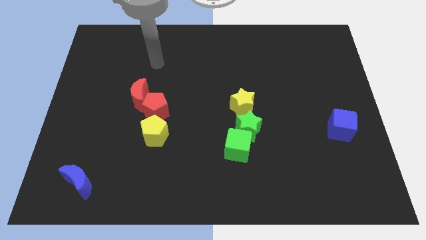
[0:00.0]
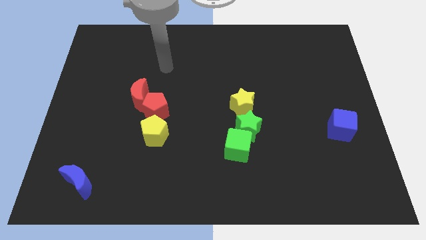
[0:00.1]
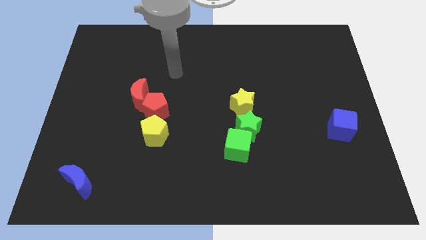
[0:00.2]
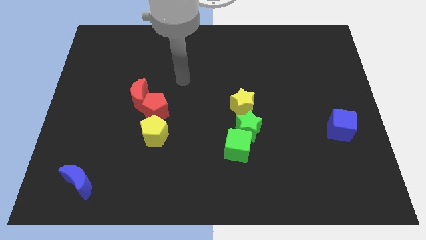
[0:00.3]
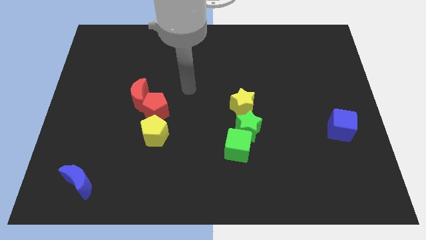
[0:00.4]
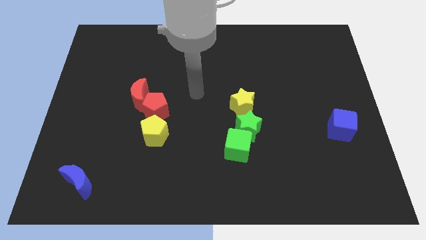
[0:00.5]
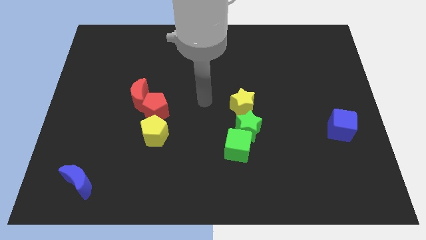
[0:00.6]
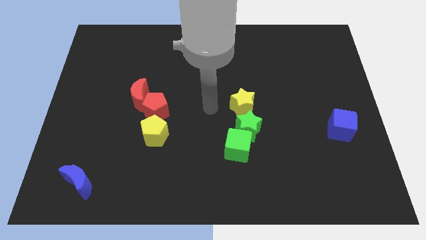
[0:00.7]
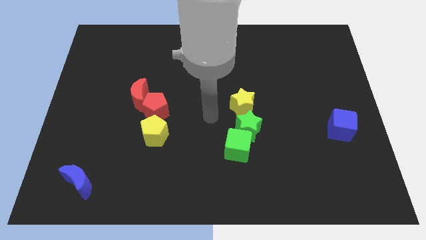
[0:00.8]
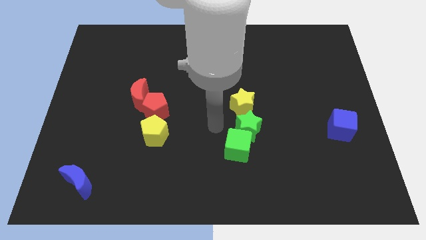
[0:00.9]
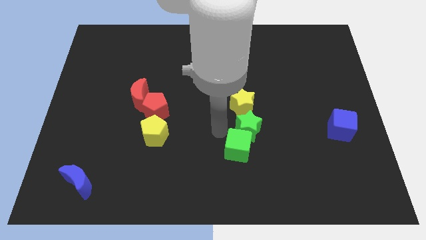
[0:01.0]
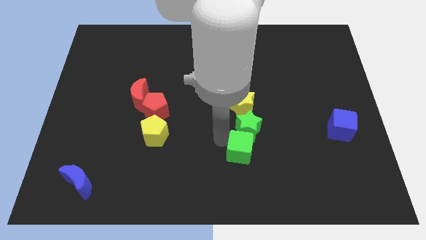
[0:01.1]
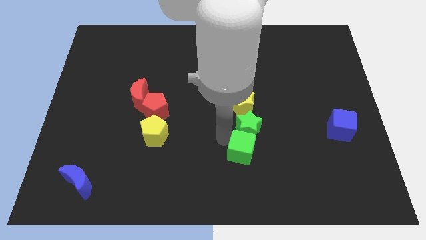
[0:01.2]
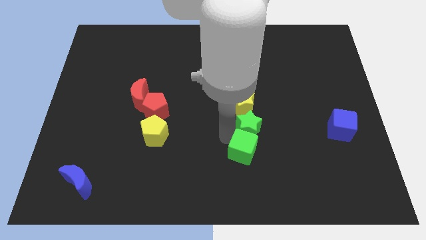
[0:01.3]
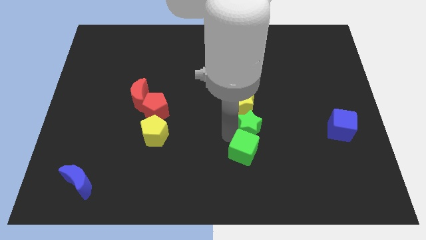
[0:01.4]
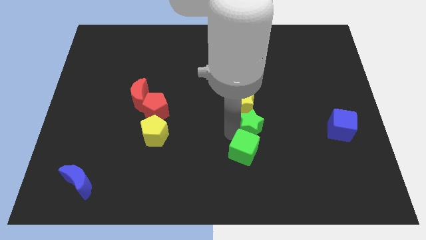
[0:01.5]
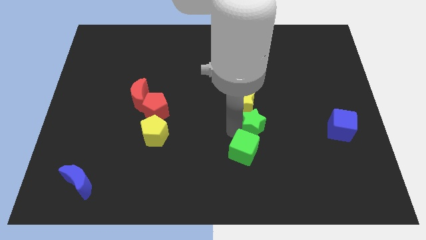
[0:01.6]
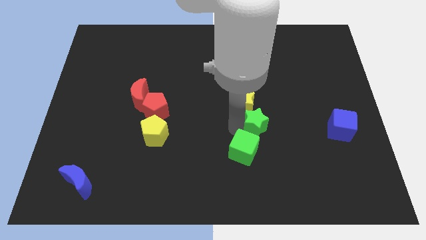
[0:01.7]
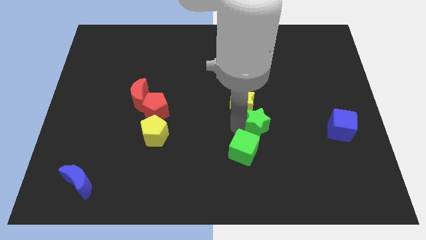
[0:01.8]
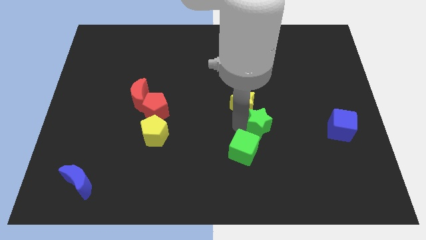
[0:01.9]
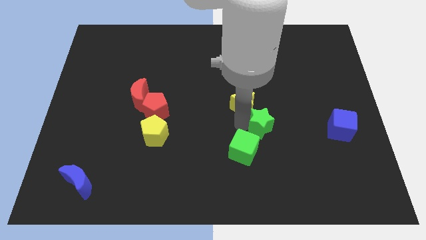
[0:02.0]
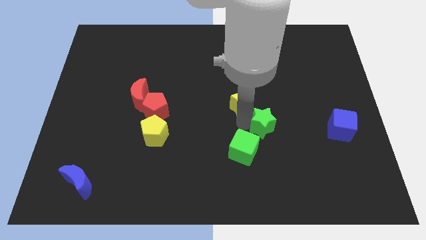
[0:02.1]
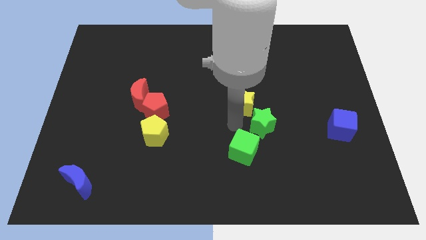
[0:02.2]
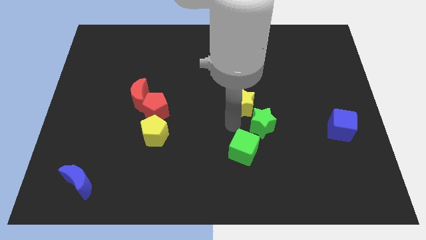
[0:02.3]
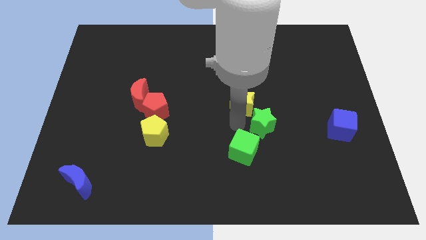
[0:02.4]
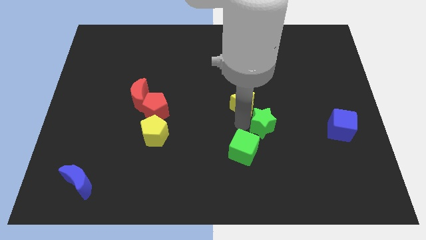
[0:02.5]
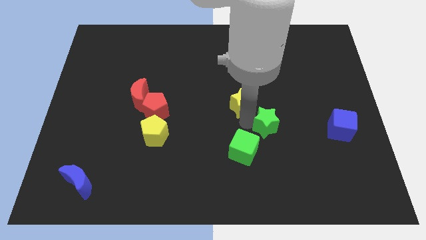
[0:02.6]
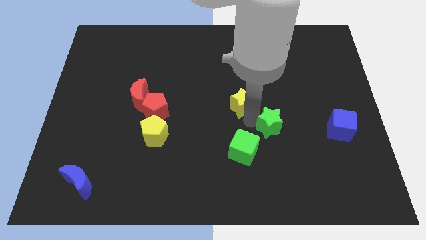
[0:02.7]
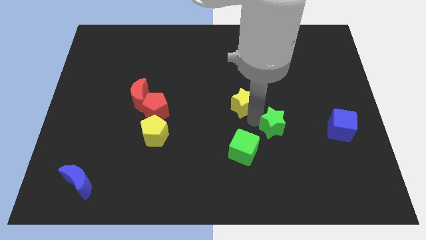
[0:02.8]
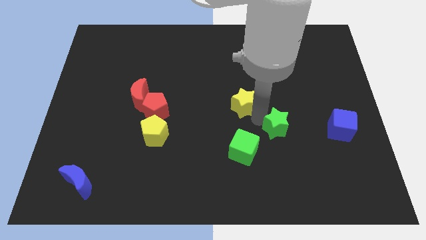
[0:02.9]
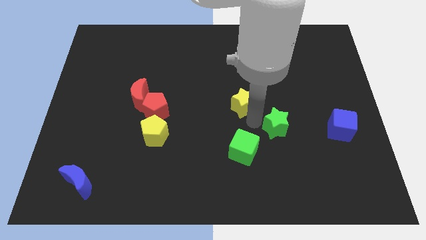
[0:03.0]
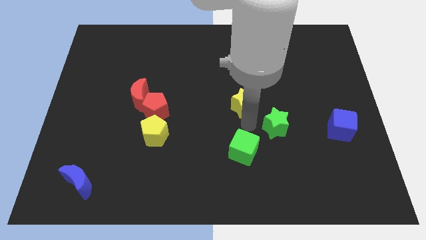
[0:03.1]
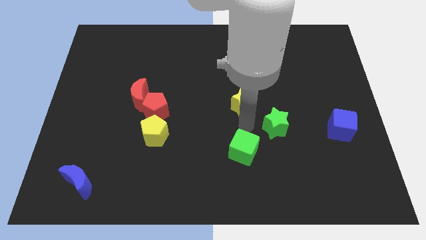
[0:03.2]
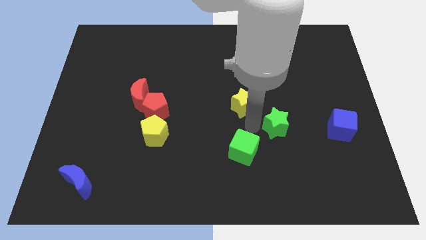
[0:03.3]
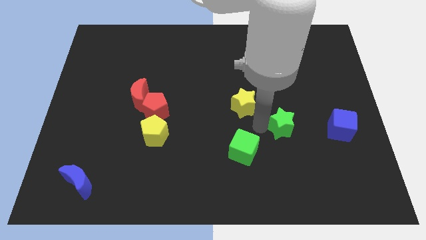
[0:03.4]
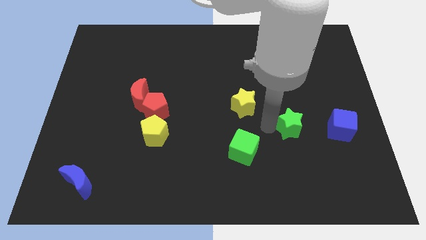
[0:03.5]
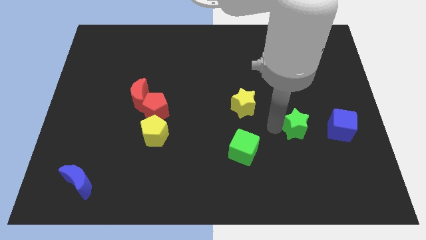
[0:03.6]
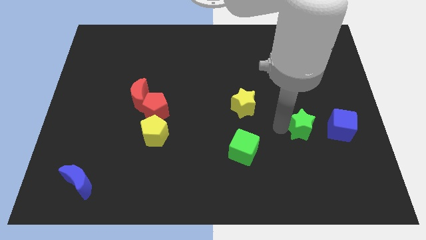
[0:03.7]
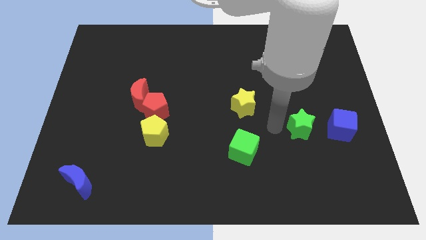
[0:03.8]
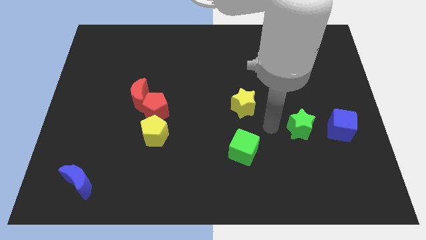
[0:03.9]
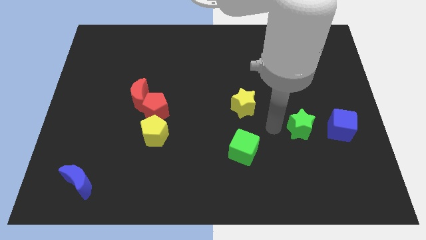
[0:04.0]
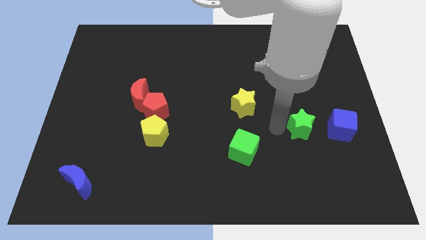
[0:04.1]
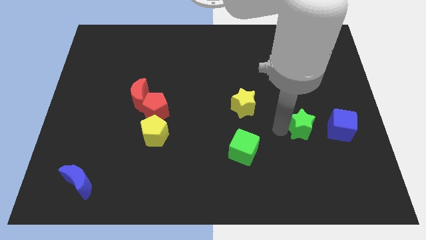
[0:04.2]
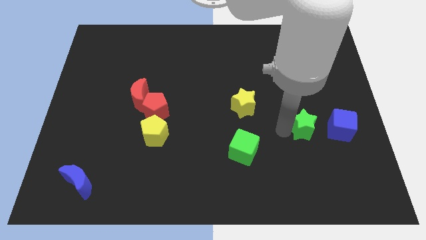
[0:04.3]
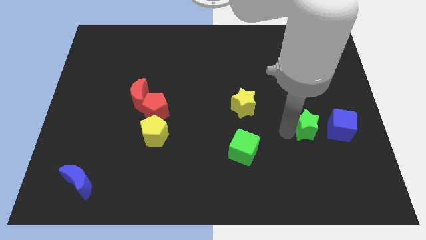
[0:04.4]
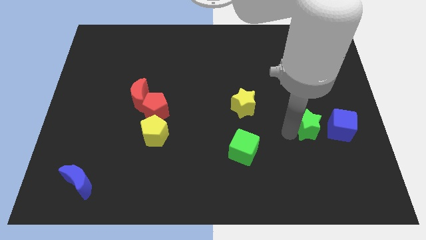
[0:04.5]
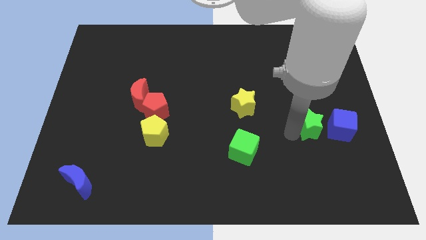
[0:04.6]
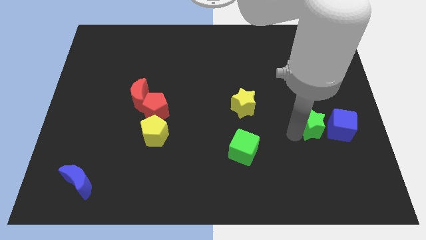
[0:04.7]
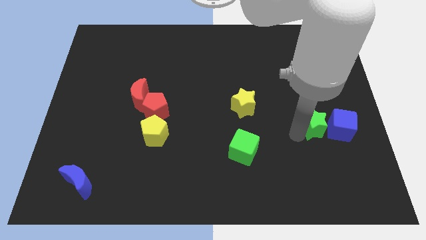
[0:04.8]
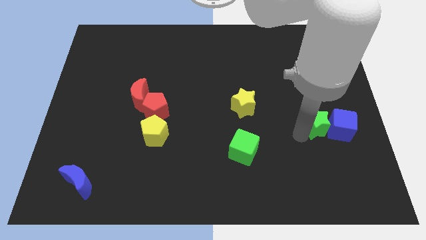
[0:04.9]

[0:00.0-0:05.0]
slide the green star next to the blue cube

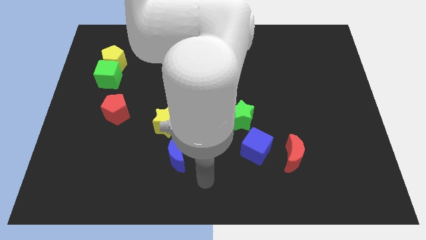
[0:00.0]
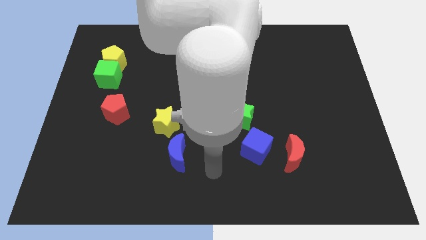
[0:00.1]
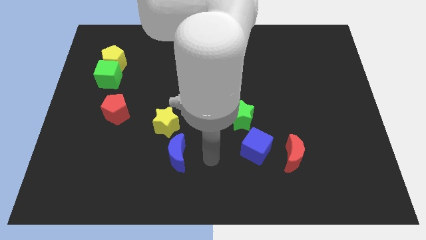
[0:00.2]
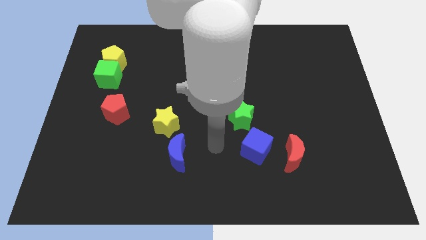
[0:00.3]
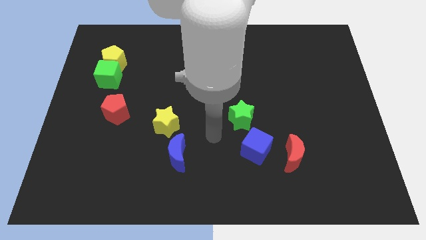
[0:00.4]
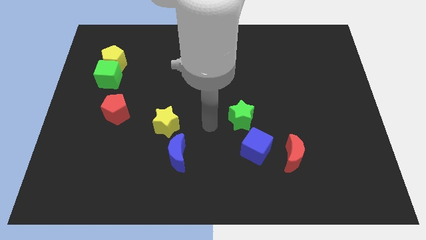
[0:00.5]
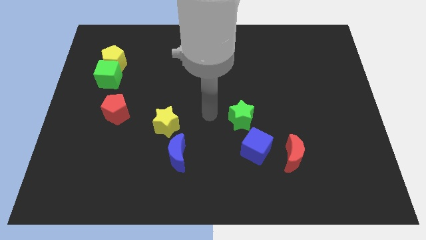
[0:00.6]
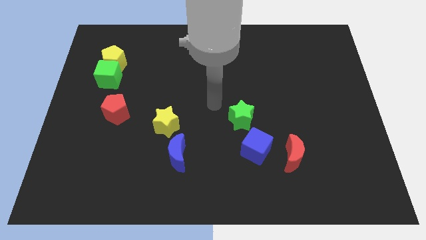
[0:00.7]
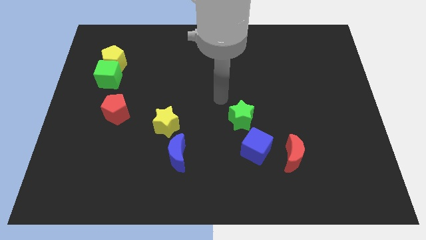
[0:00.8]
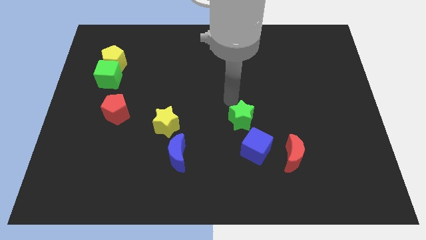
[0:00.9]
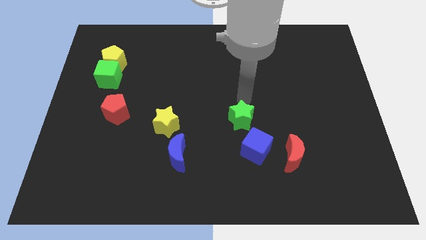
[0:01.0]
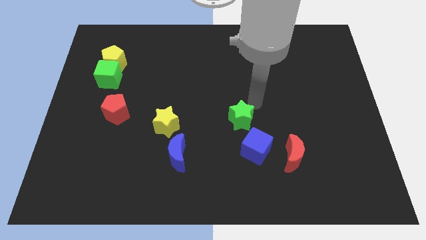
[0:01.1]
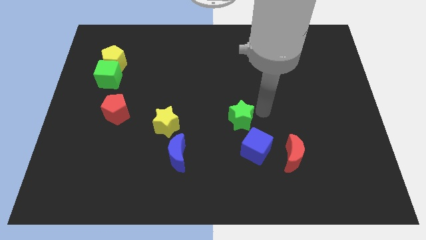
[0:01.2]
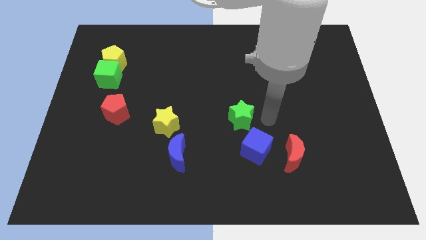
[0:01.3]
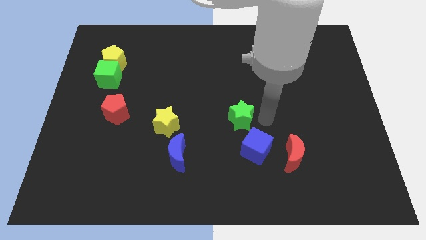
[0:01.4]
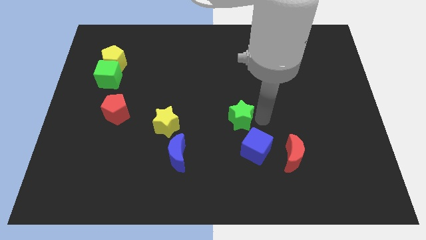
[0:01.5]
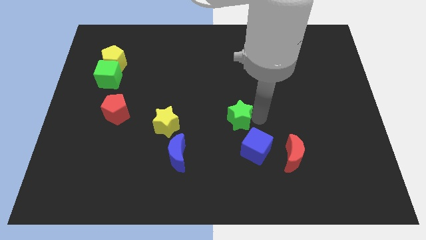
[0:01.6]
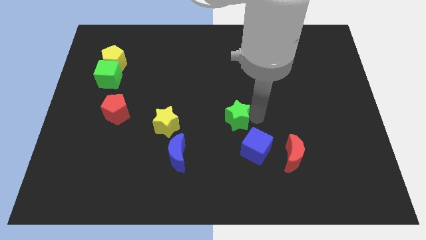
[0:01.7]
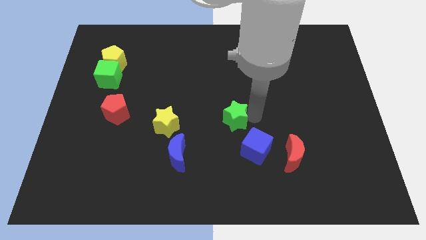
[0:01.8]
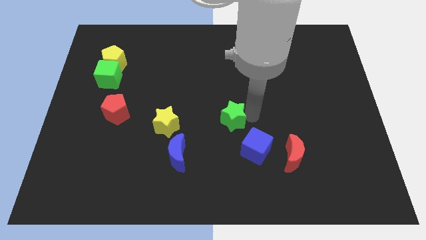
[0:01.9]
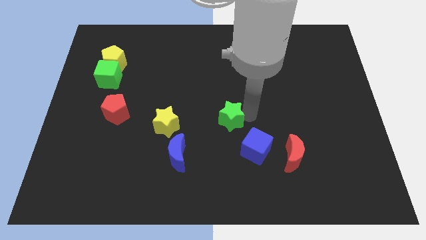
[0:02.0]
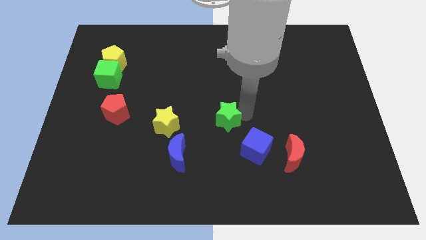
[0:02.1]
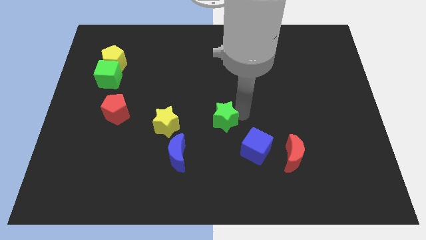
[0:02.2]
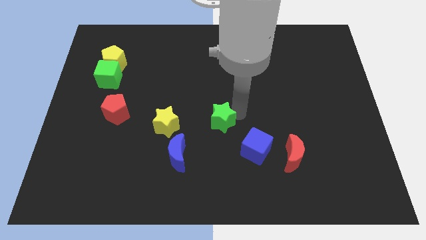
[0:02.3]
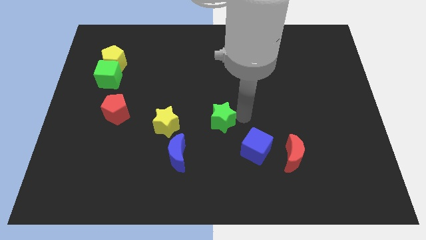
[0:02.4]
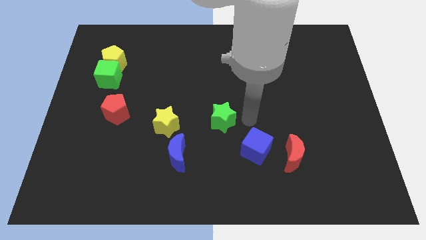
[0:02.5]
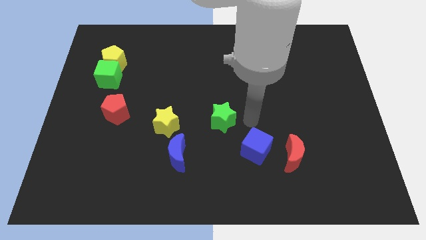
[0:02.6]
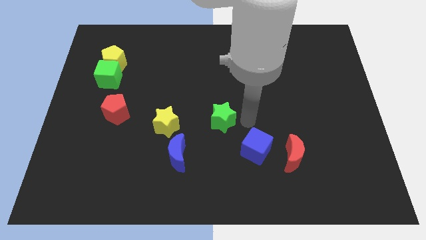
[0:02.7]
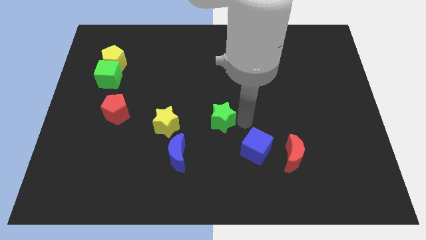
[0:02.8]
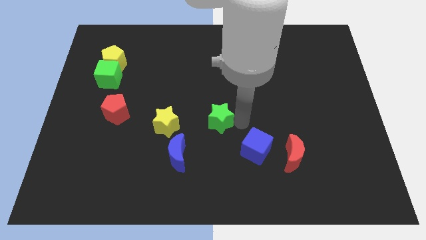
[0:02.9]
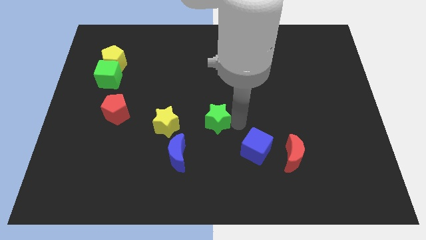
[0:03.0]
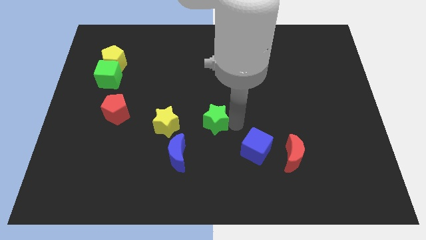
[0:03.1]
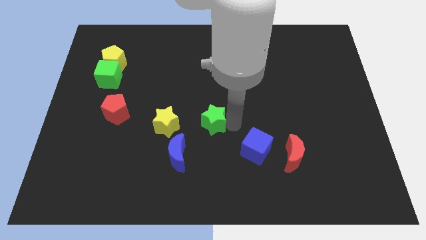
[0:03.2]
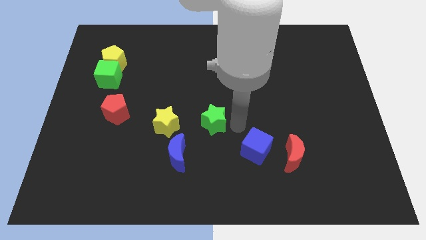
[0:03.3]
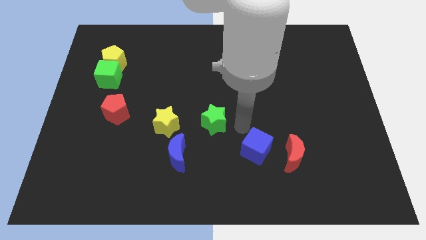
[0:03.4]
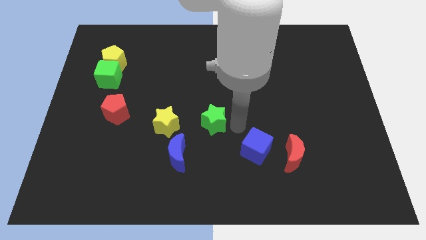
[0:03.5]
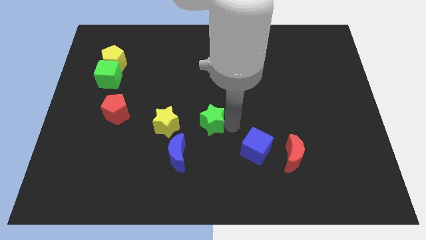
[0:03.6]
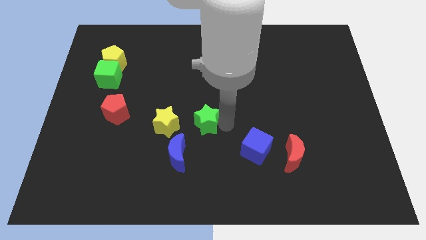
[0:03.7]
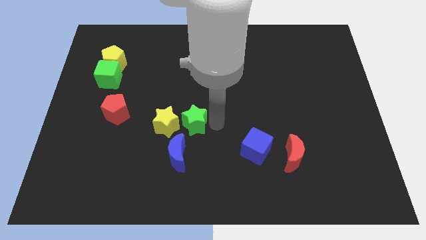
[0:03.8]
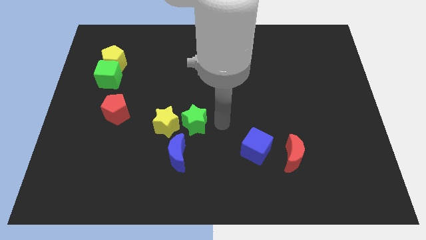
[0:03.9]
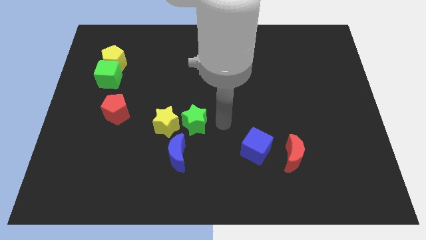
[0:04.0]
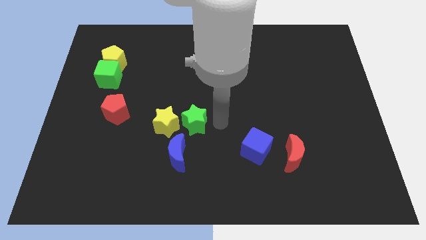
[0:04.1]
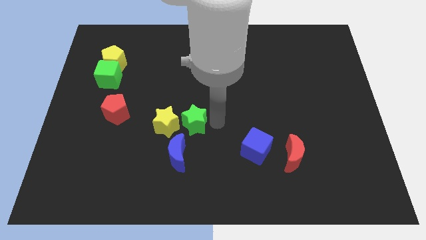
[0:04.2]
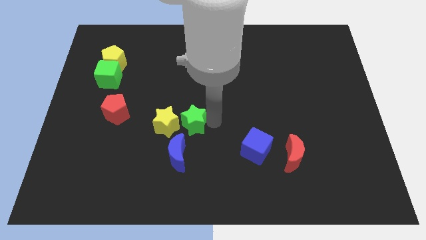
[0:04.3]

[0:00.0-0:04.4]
move the green star close to the yellow star
